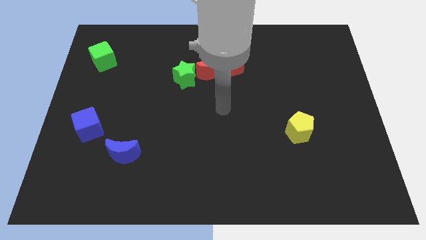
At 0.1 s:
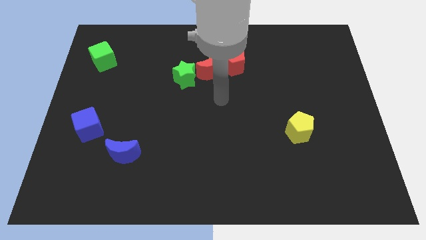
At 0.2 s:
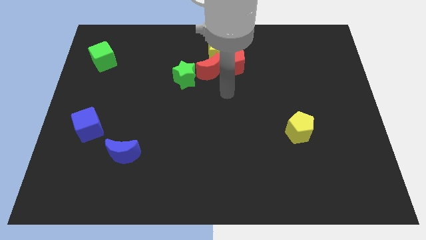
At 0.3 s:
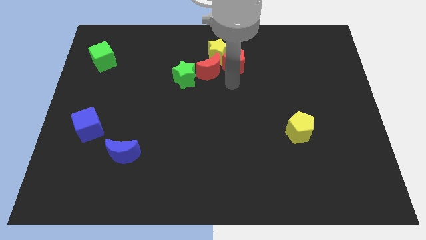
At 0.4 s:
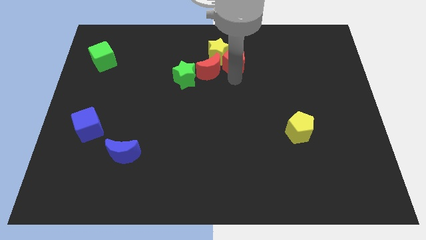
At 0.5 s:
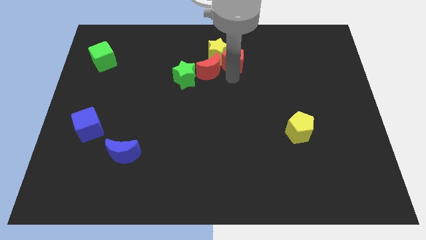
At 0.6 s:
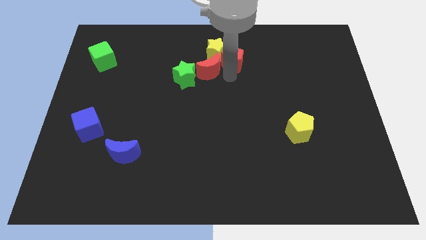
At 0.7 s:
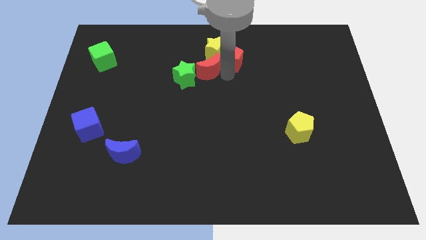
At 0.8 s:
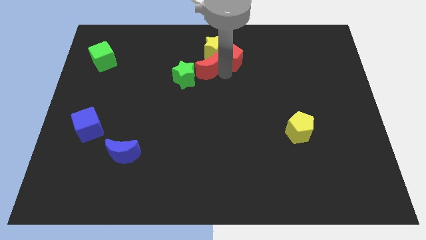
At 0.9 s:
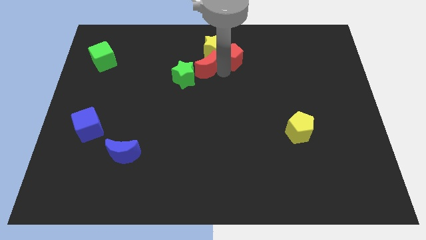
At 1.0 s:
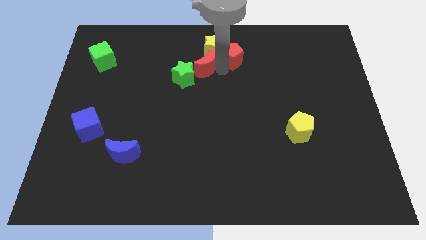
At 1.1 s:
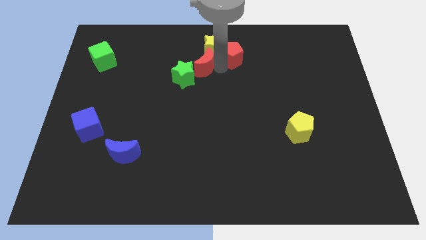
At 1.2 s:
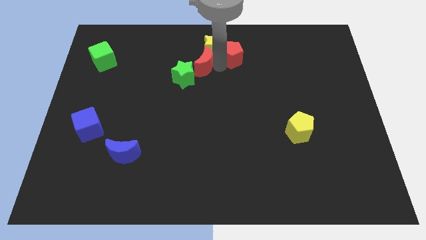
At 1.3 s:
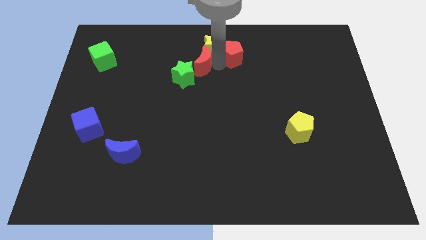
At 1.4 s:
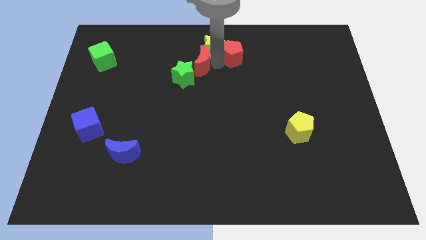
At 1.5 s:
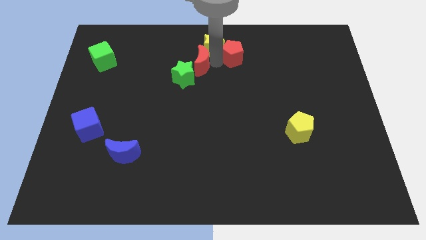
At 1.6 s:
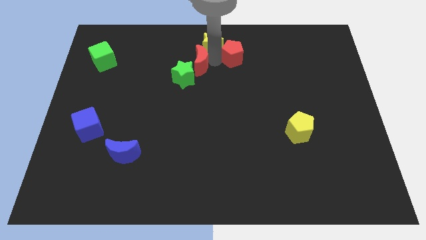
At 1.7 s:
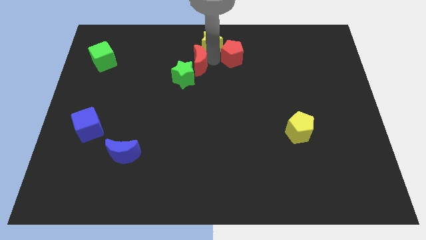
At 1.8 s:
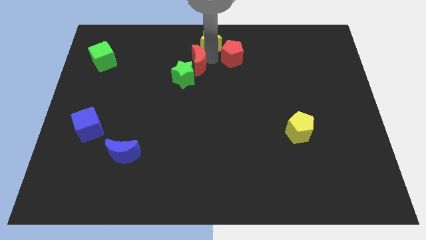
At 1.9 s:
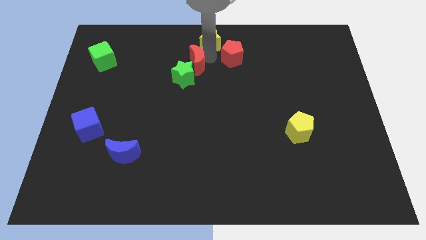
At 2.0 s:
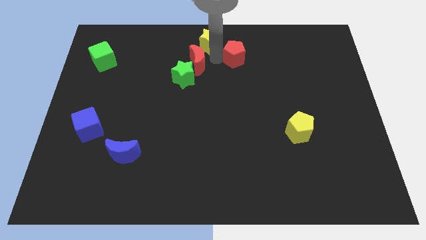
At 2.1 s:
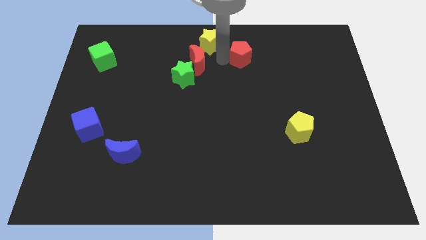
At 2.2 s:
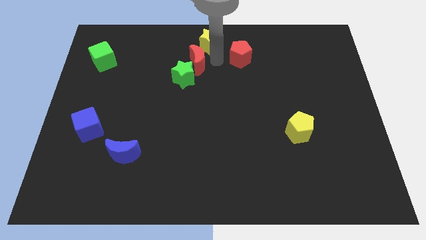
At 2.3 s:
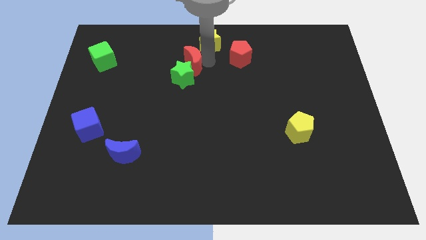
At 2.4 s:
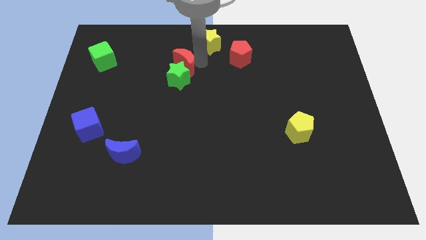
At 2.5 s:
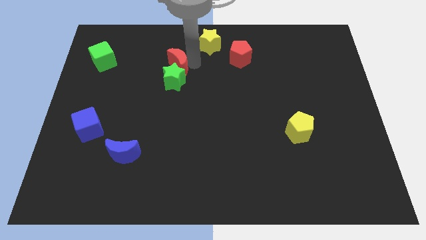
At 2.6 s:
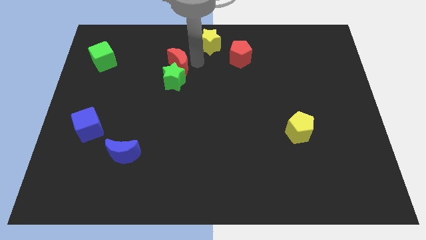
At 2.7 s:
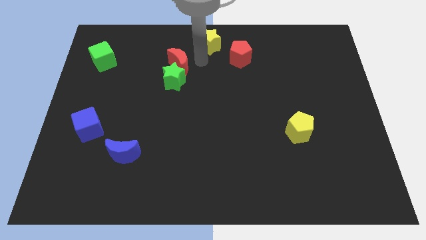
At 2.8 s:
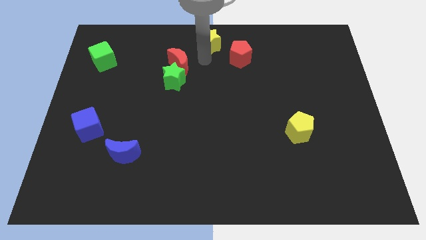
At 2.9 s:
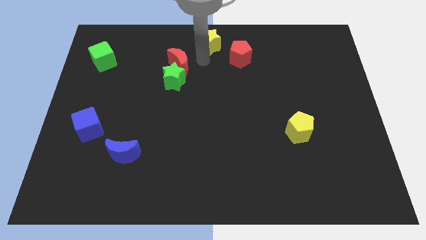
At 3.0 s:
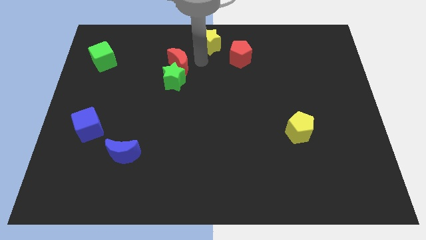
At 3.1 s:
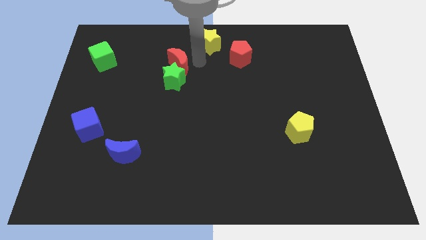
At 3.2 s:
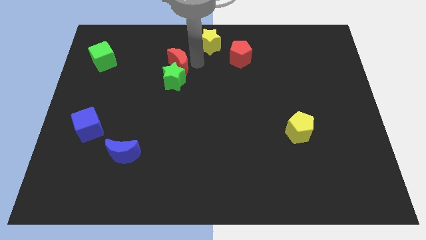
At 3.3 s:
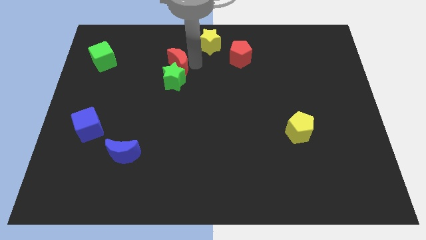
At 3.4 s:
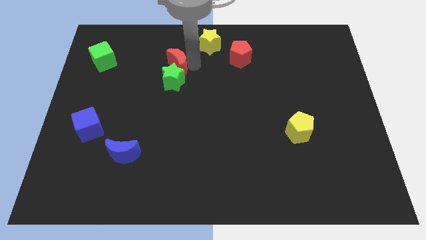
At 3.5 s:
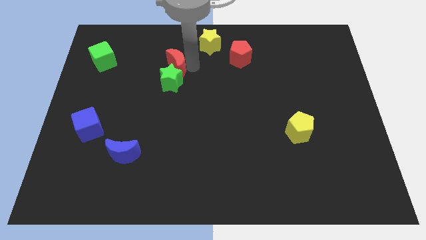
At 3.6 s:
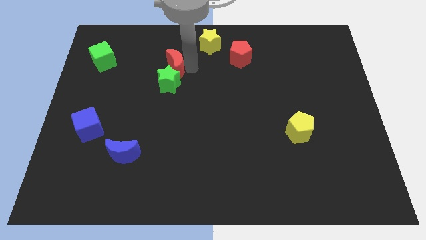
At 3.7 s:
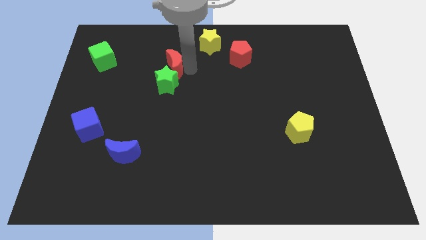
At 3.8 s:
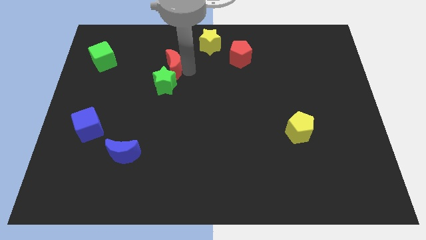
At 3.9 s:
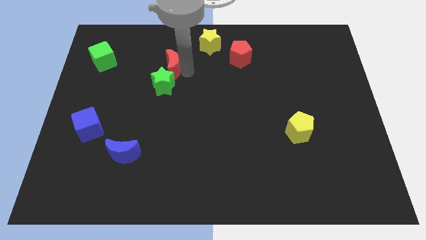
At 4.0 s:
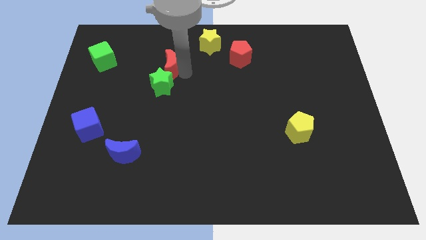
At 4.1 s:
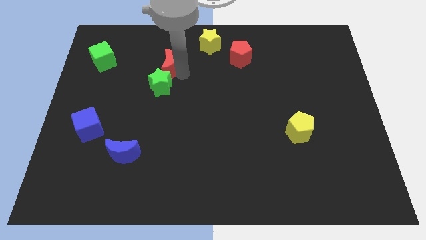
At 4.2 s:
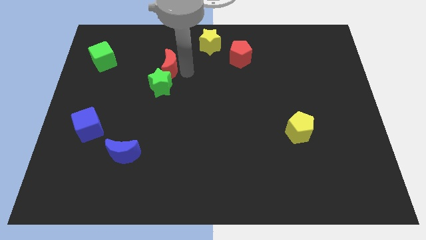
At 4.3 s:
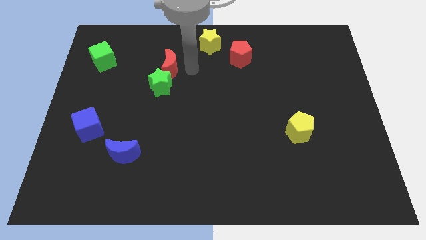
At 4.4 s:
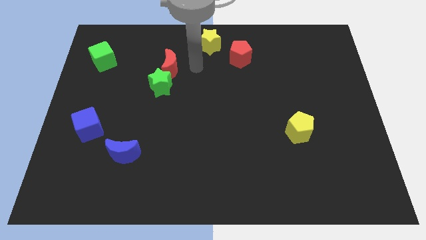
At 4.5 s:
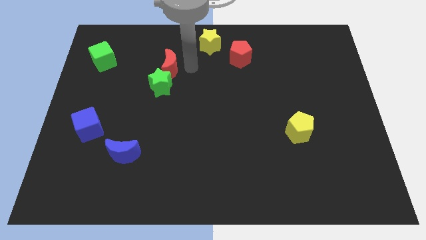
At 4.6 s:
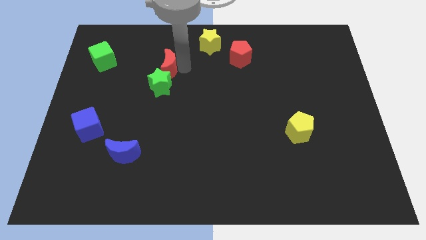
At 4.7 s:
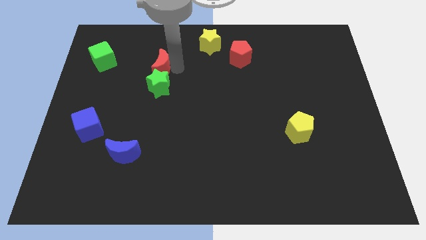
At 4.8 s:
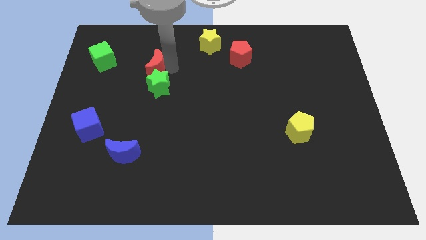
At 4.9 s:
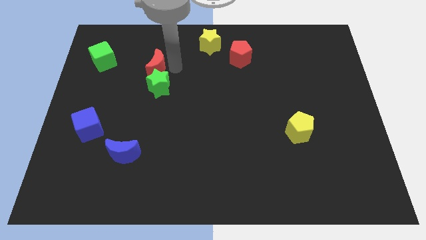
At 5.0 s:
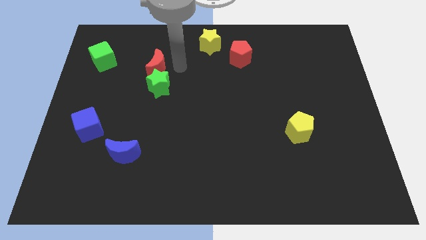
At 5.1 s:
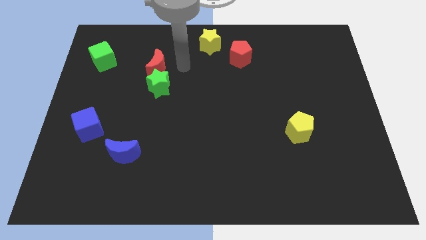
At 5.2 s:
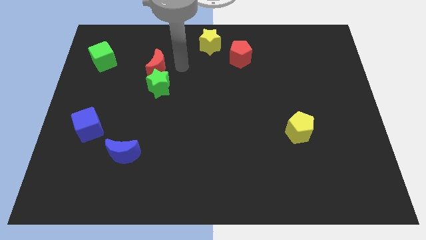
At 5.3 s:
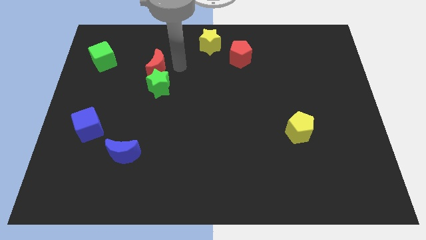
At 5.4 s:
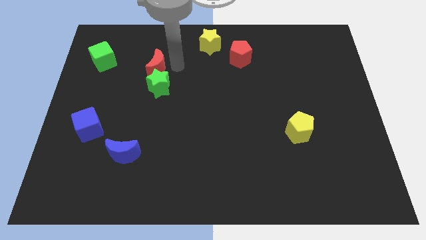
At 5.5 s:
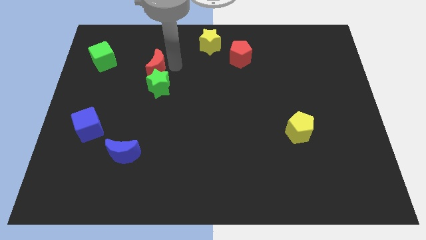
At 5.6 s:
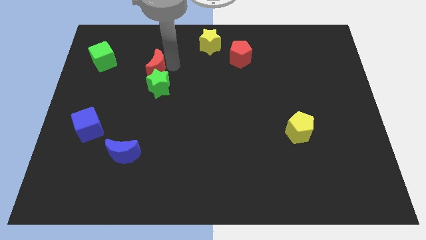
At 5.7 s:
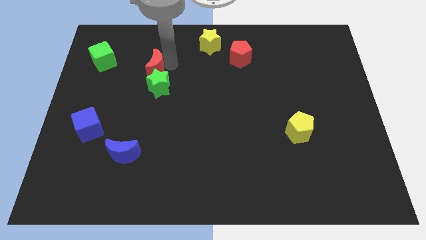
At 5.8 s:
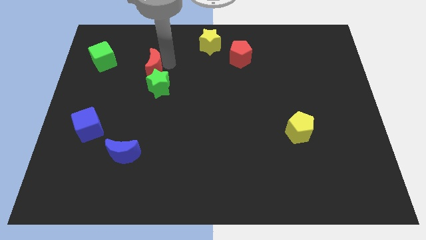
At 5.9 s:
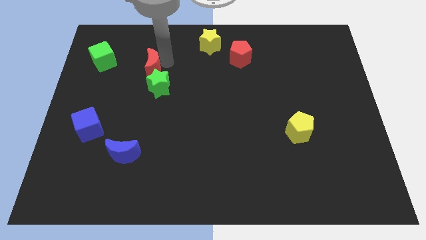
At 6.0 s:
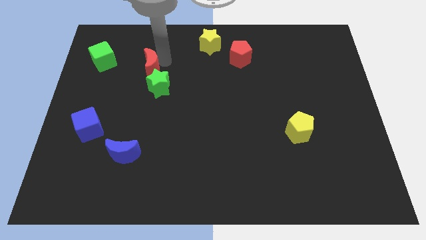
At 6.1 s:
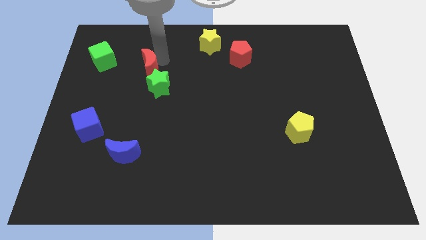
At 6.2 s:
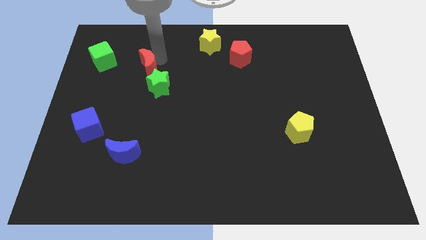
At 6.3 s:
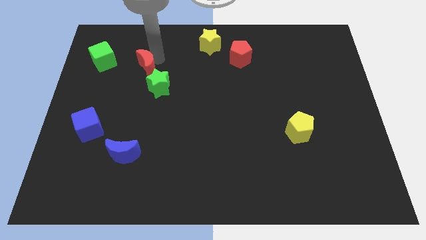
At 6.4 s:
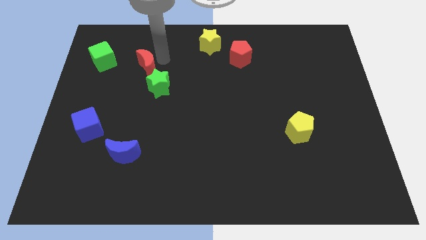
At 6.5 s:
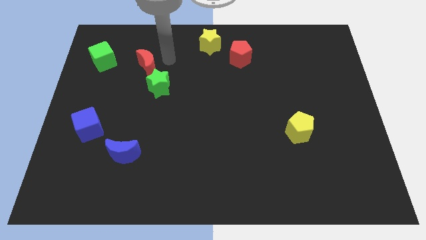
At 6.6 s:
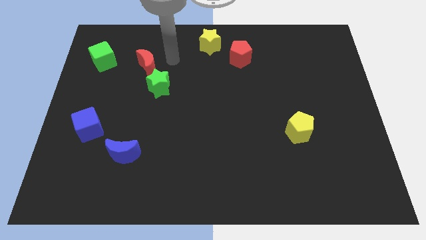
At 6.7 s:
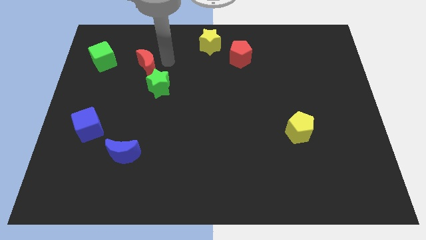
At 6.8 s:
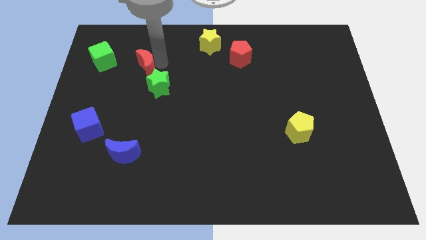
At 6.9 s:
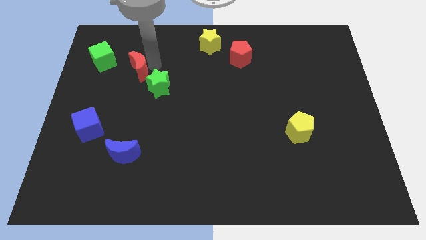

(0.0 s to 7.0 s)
push the red moon diagonally down and to the right of the green cube
